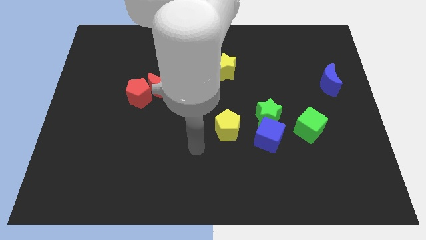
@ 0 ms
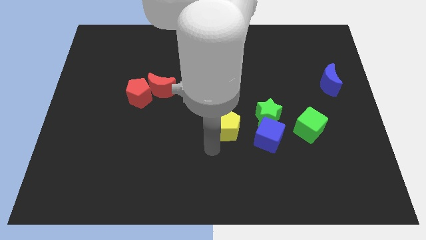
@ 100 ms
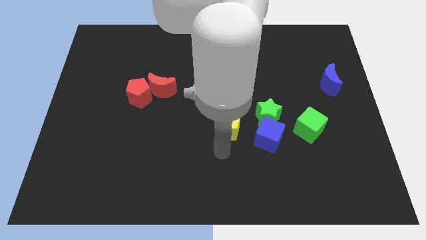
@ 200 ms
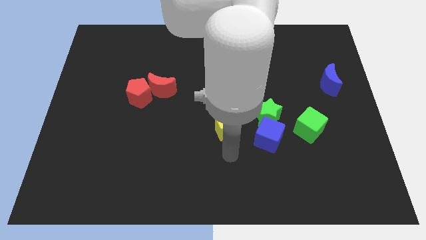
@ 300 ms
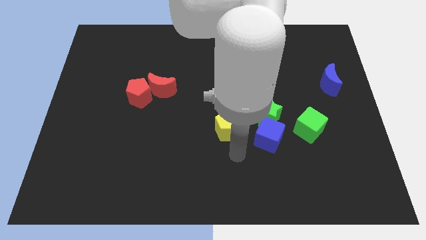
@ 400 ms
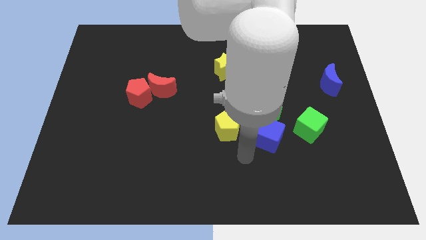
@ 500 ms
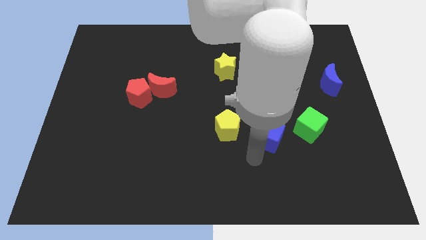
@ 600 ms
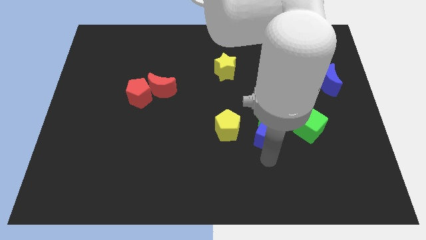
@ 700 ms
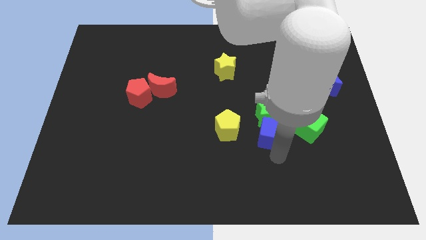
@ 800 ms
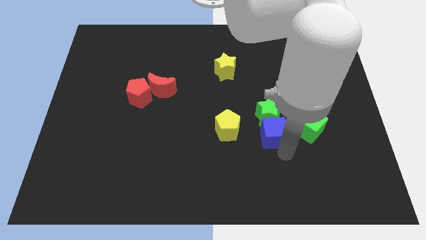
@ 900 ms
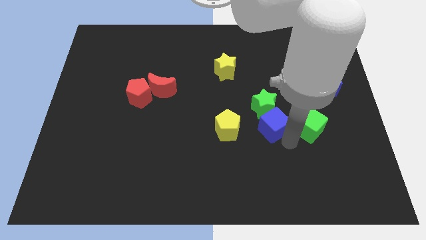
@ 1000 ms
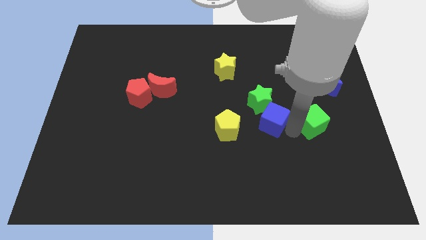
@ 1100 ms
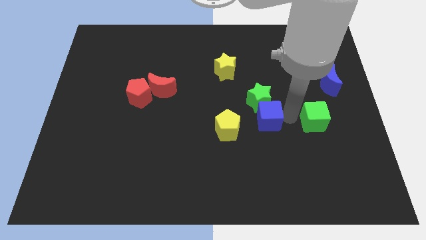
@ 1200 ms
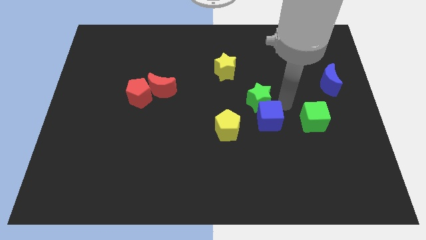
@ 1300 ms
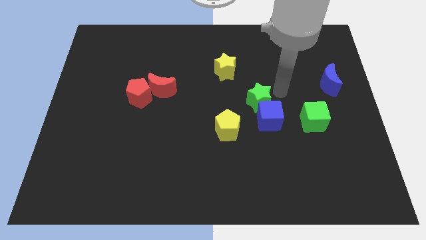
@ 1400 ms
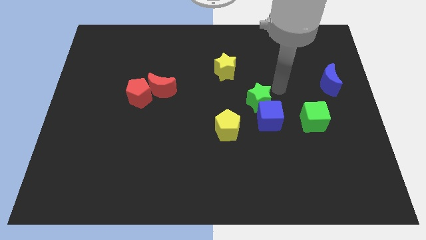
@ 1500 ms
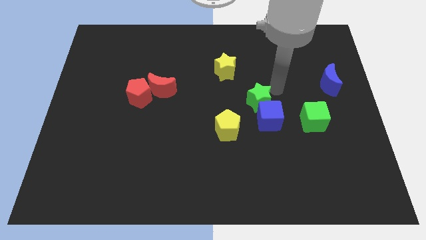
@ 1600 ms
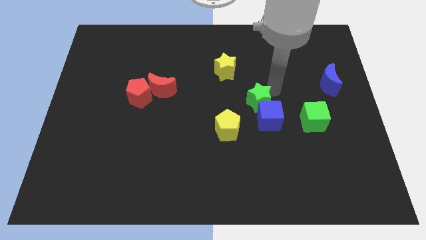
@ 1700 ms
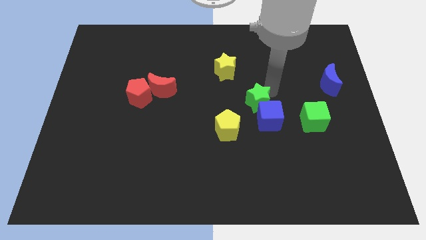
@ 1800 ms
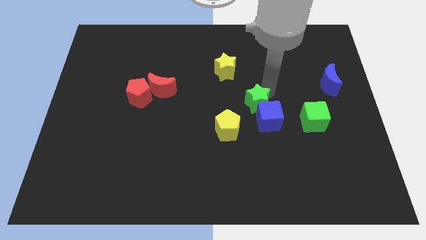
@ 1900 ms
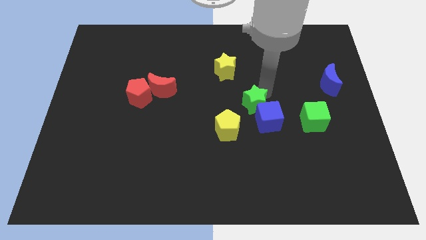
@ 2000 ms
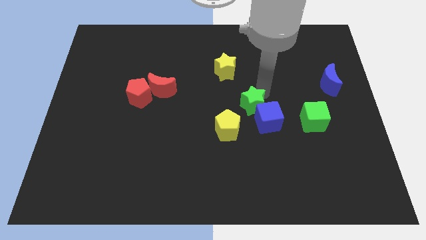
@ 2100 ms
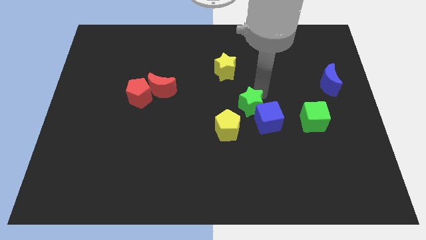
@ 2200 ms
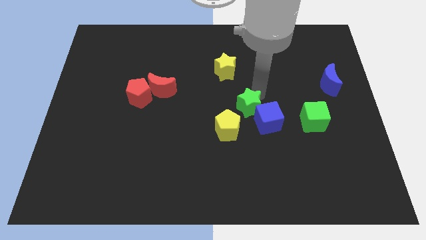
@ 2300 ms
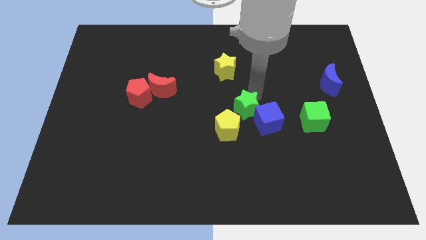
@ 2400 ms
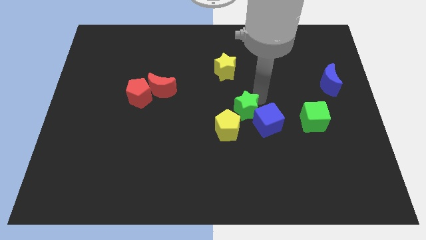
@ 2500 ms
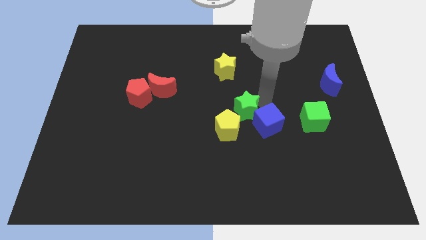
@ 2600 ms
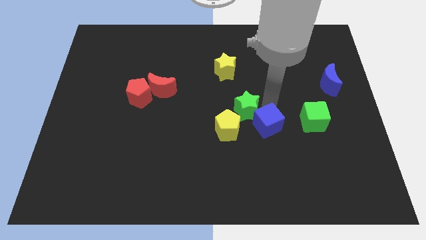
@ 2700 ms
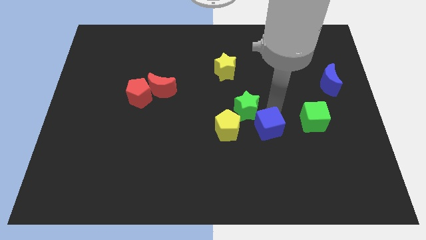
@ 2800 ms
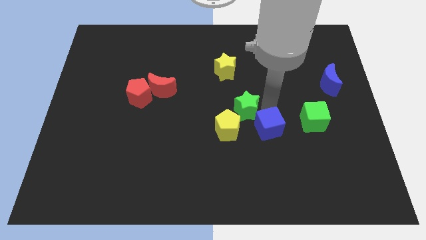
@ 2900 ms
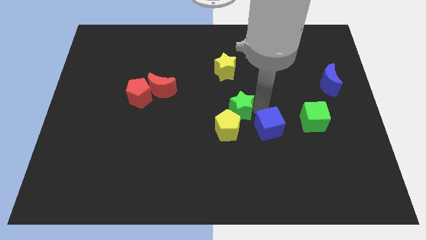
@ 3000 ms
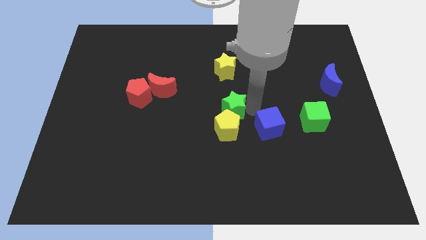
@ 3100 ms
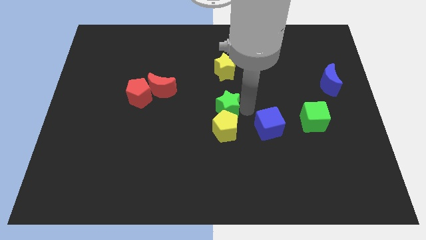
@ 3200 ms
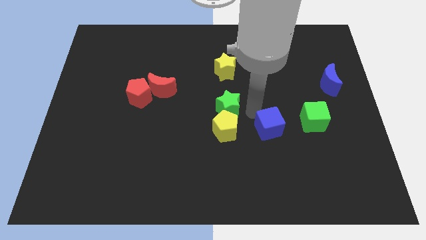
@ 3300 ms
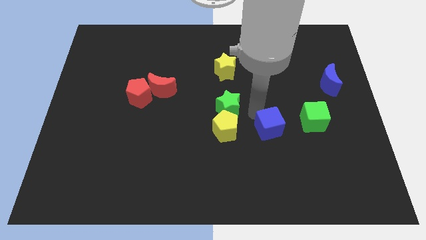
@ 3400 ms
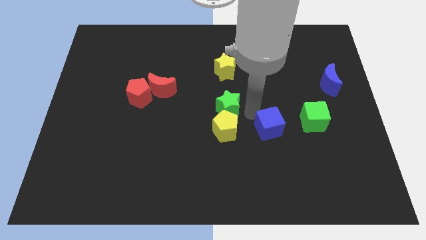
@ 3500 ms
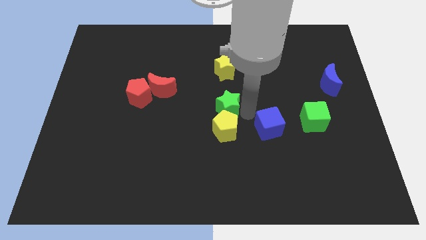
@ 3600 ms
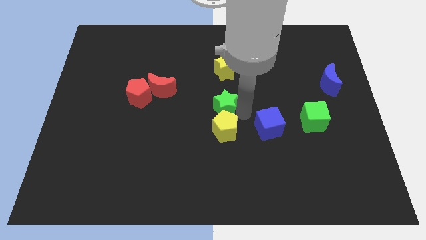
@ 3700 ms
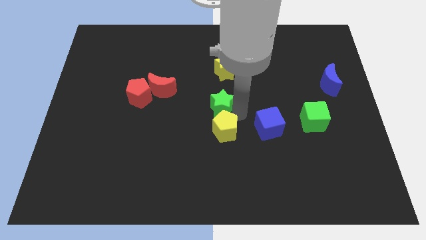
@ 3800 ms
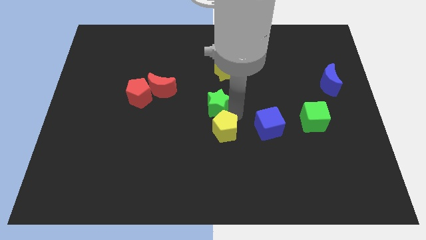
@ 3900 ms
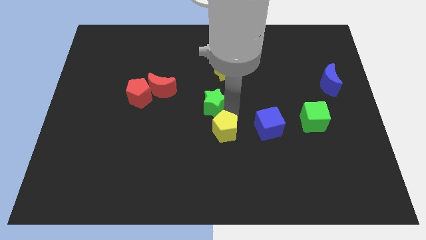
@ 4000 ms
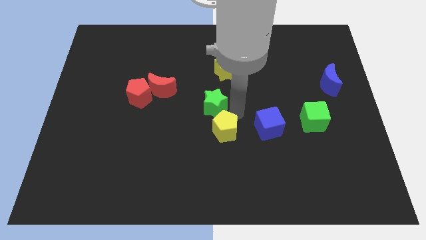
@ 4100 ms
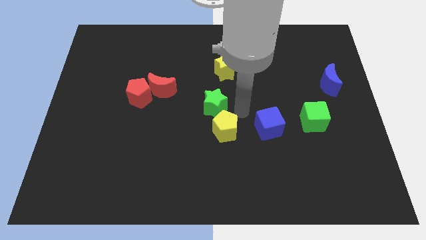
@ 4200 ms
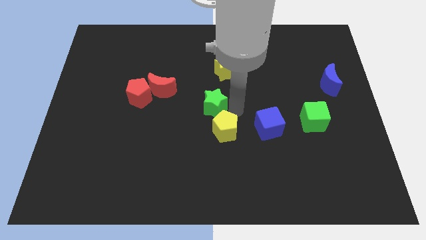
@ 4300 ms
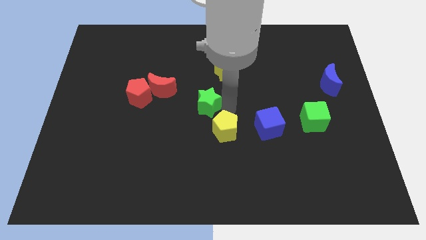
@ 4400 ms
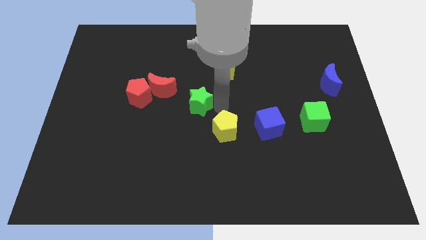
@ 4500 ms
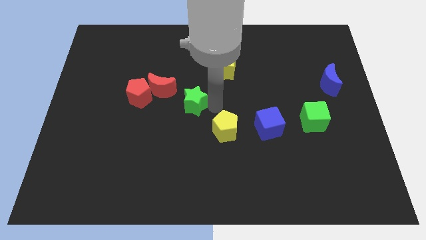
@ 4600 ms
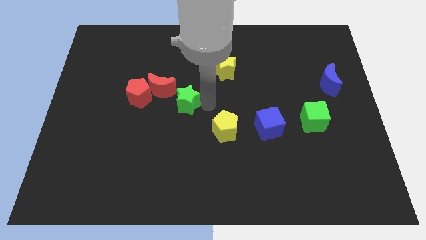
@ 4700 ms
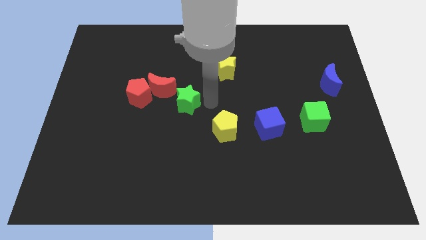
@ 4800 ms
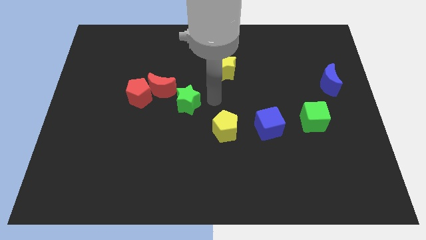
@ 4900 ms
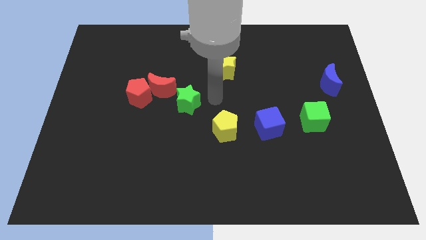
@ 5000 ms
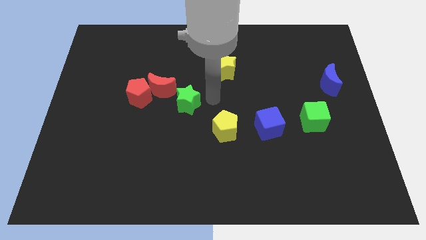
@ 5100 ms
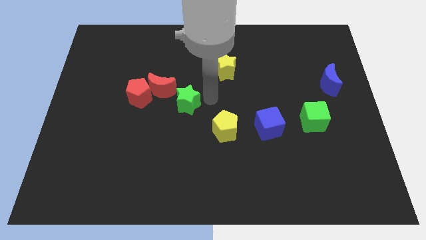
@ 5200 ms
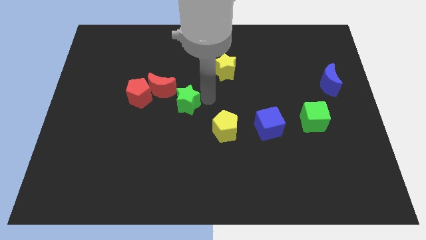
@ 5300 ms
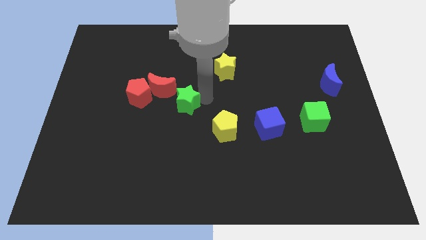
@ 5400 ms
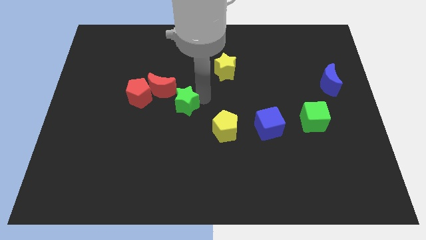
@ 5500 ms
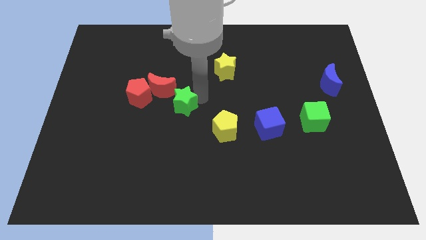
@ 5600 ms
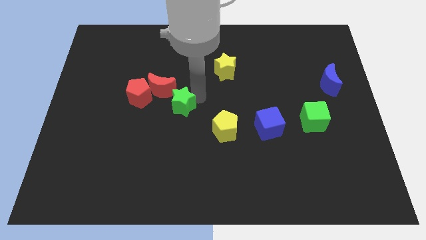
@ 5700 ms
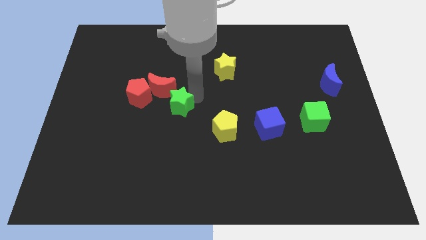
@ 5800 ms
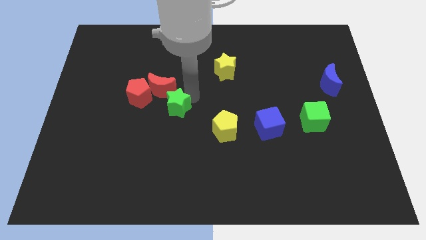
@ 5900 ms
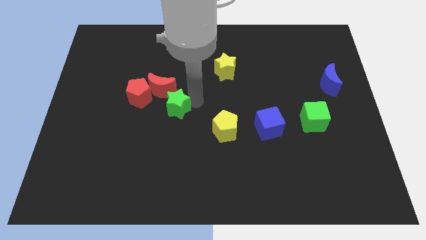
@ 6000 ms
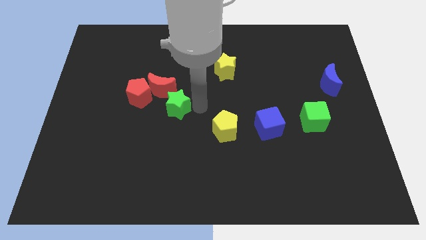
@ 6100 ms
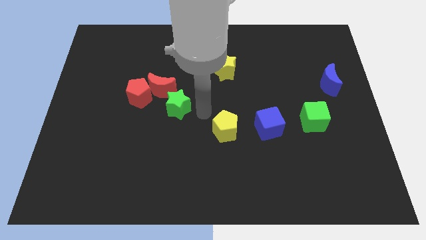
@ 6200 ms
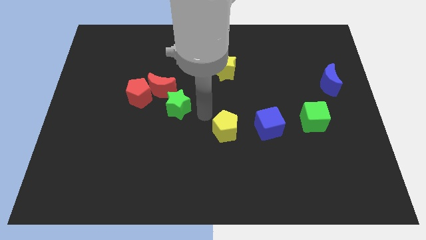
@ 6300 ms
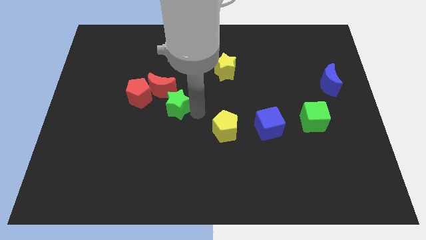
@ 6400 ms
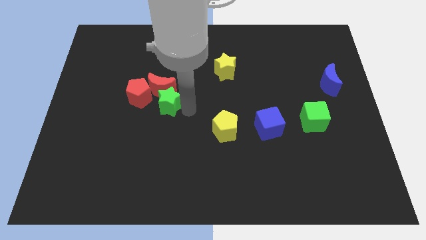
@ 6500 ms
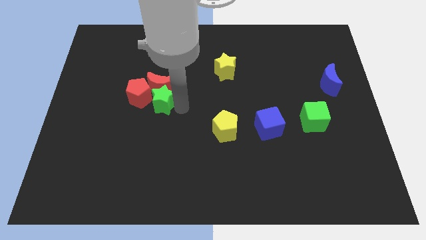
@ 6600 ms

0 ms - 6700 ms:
put the green star next to the red pentagon

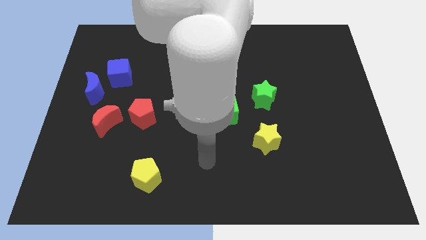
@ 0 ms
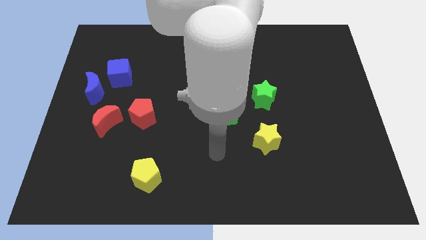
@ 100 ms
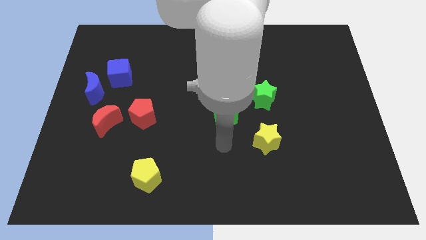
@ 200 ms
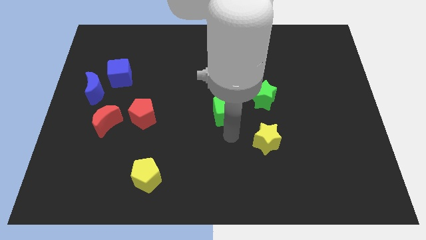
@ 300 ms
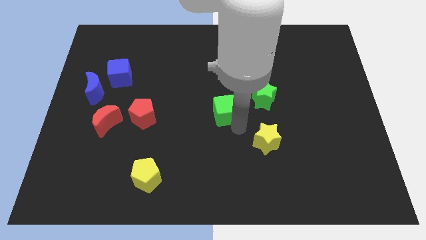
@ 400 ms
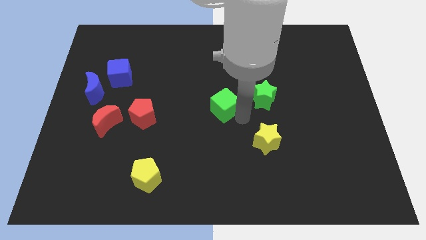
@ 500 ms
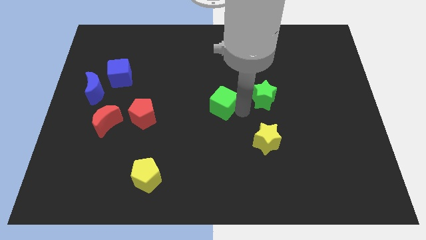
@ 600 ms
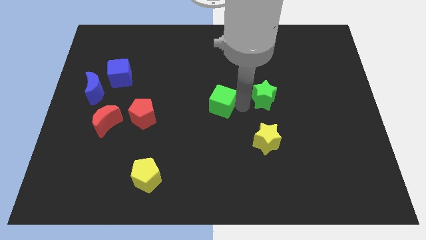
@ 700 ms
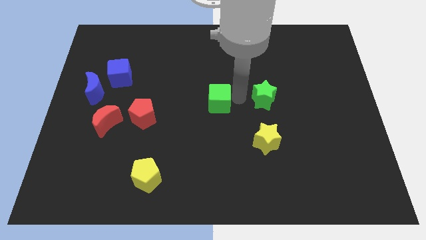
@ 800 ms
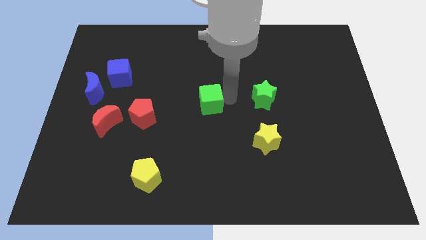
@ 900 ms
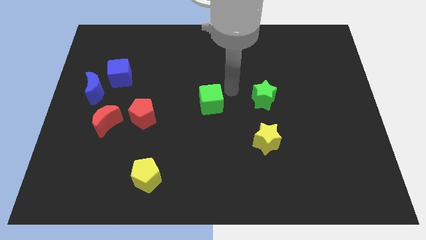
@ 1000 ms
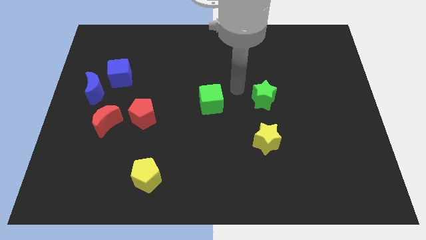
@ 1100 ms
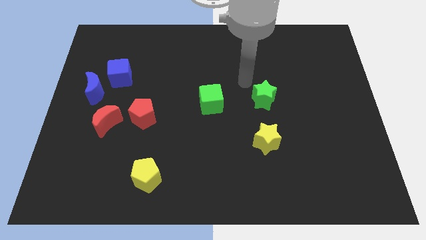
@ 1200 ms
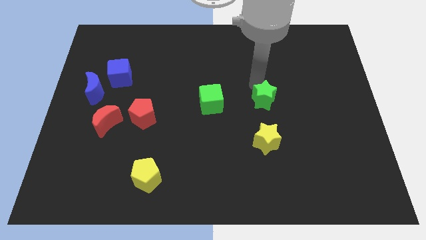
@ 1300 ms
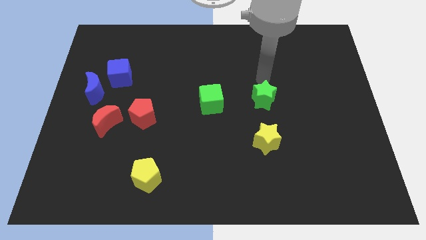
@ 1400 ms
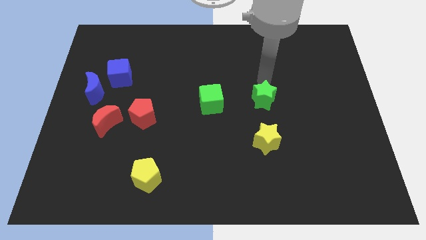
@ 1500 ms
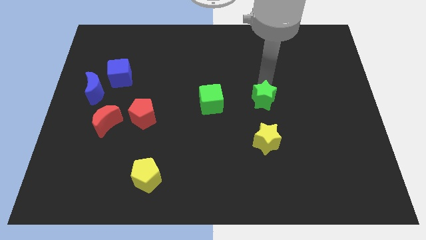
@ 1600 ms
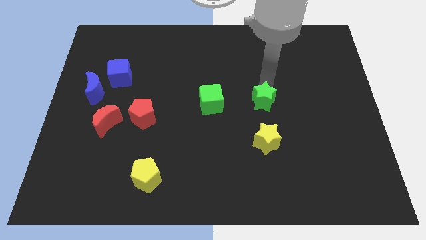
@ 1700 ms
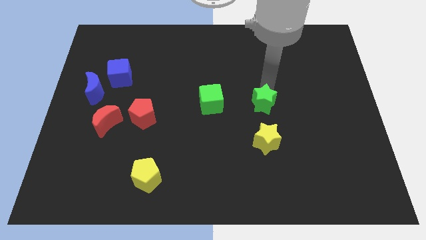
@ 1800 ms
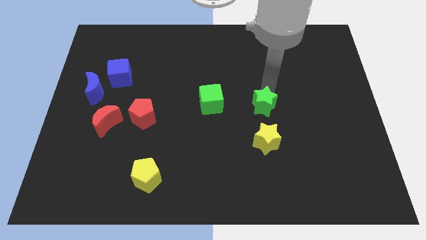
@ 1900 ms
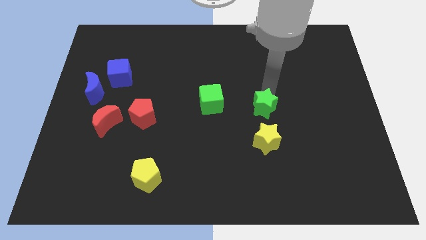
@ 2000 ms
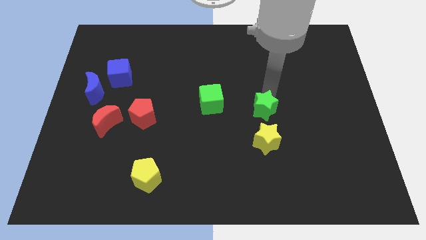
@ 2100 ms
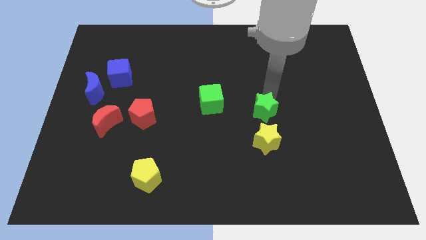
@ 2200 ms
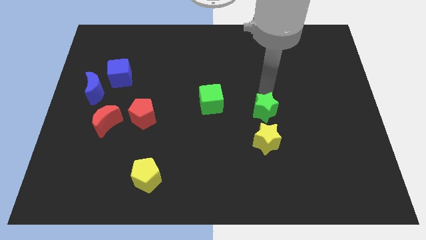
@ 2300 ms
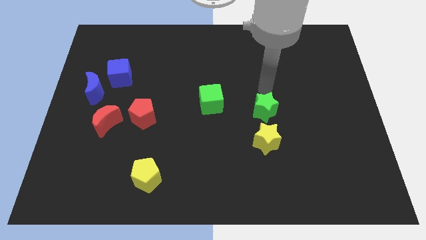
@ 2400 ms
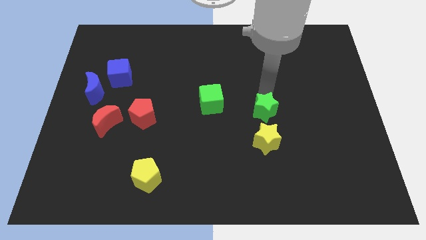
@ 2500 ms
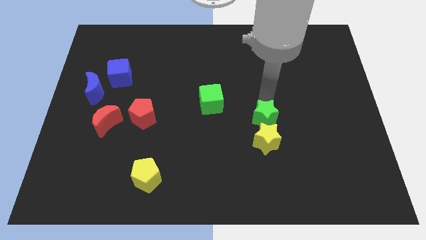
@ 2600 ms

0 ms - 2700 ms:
push the green star next to the yellow star
